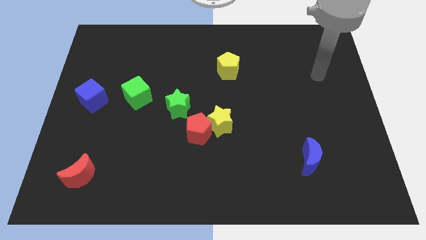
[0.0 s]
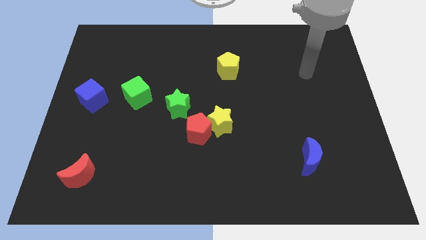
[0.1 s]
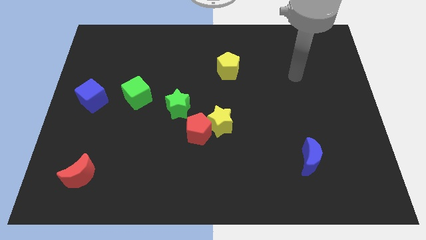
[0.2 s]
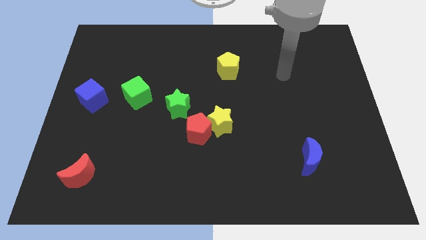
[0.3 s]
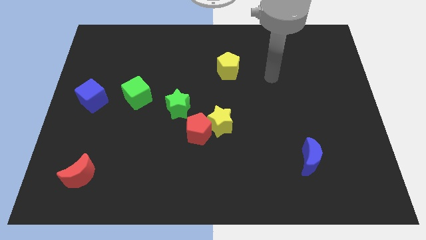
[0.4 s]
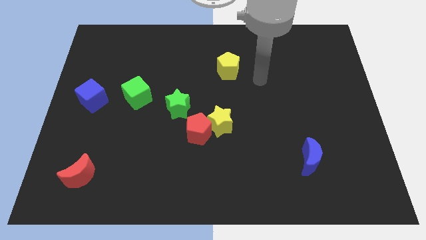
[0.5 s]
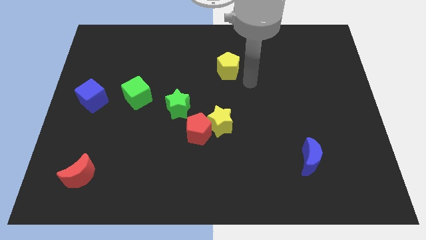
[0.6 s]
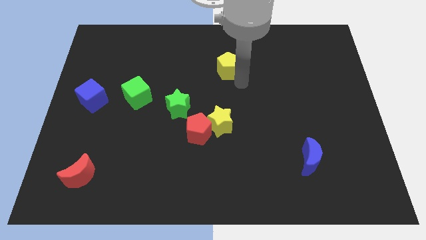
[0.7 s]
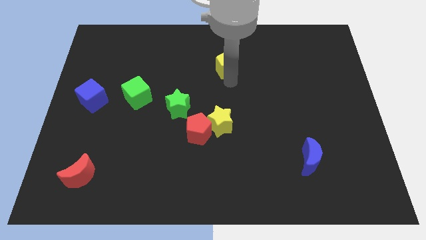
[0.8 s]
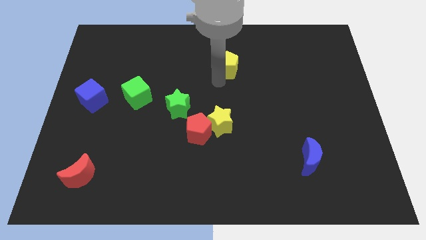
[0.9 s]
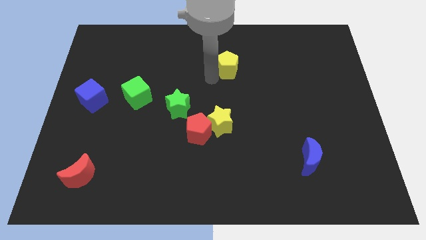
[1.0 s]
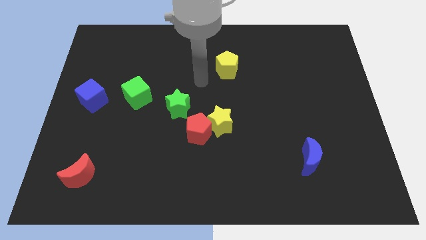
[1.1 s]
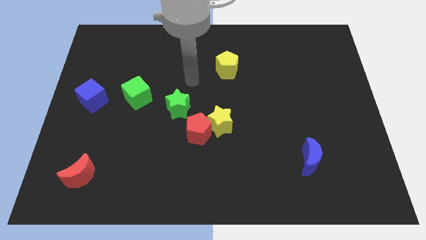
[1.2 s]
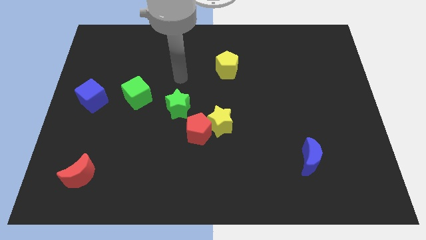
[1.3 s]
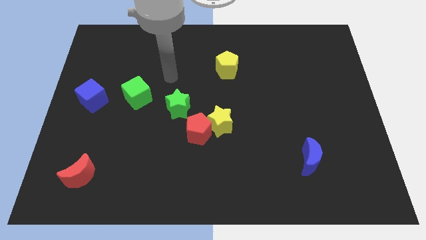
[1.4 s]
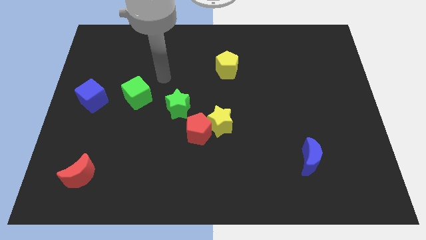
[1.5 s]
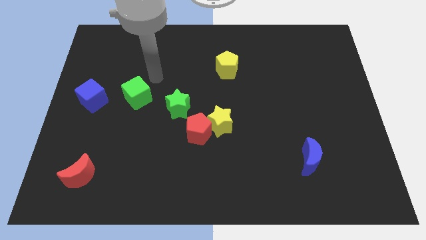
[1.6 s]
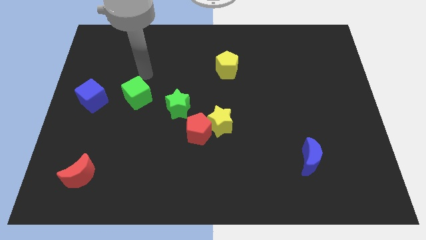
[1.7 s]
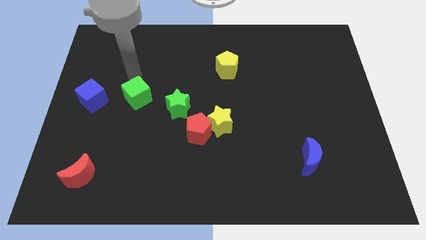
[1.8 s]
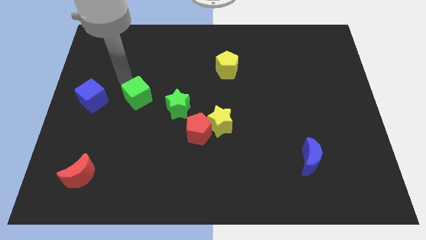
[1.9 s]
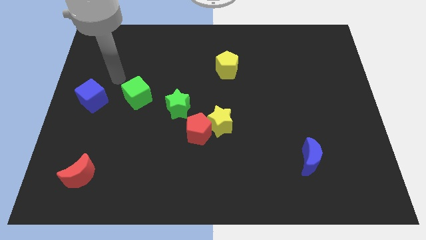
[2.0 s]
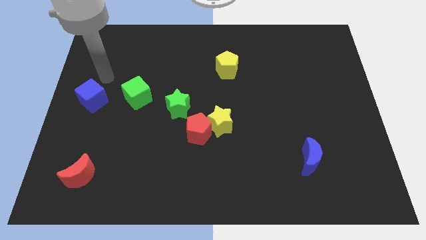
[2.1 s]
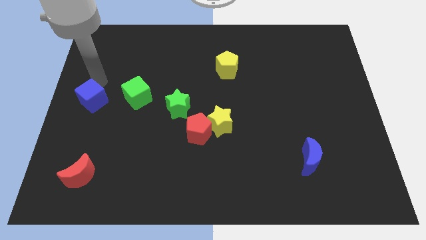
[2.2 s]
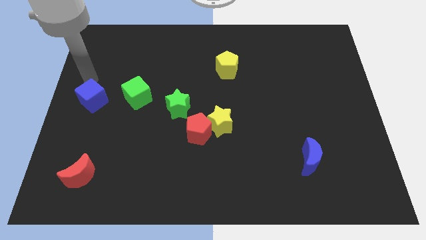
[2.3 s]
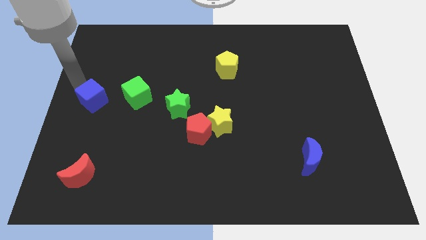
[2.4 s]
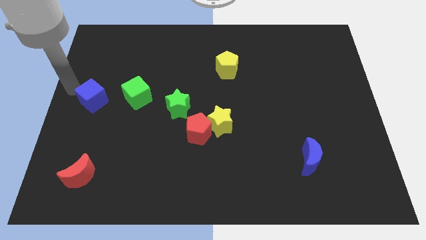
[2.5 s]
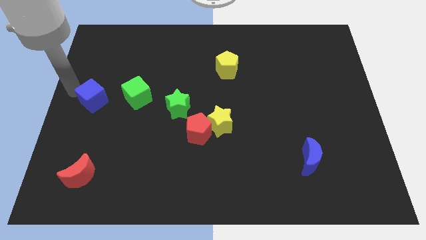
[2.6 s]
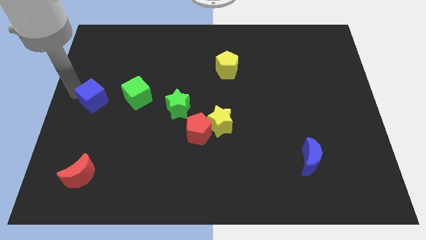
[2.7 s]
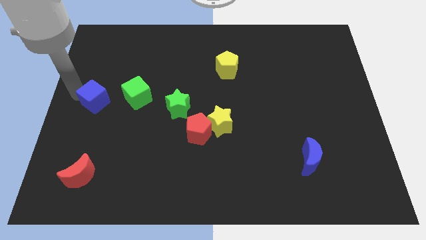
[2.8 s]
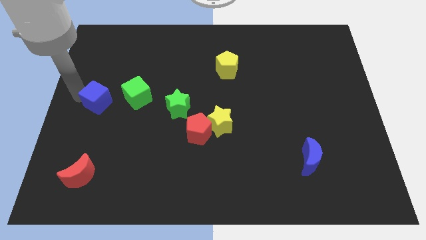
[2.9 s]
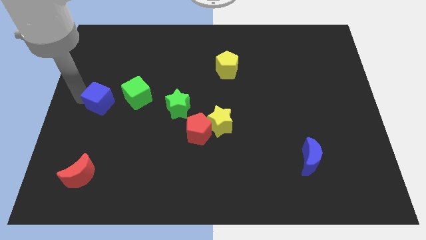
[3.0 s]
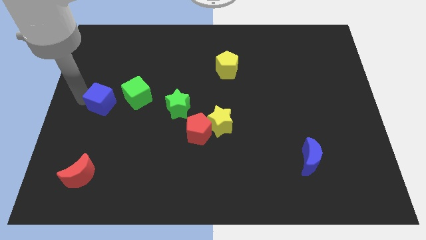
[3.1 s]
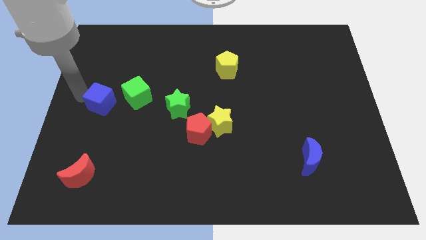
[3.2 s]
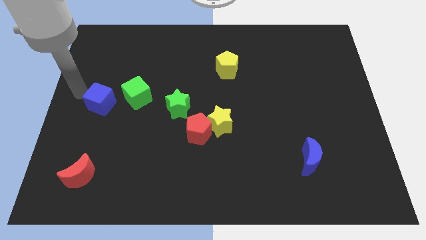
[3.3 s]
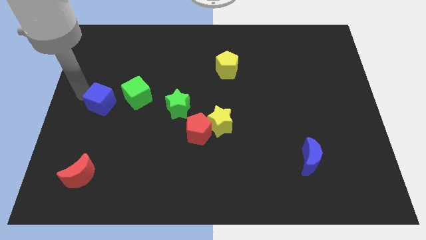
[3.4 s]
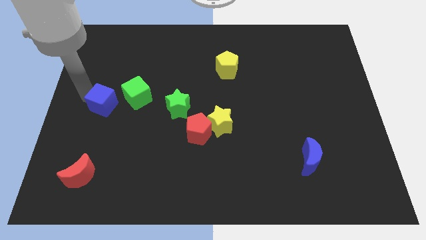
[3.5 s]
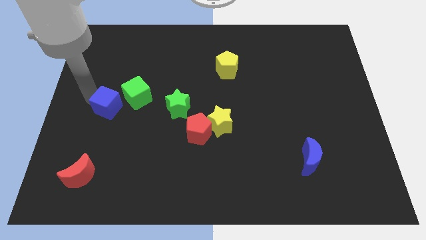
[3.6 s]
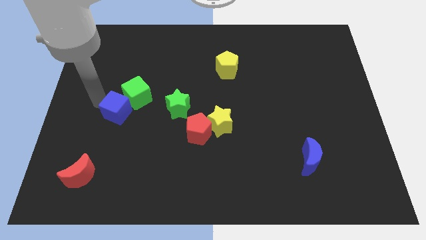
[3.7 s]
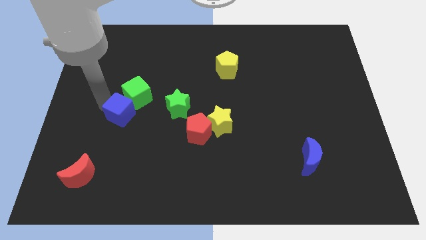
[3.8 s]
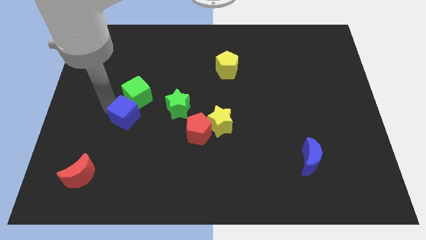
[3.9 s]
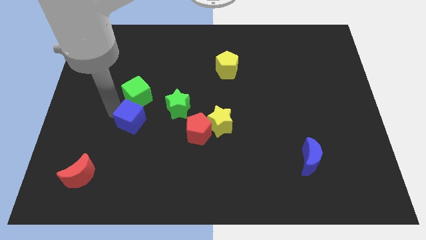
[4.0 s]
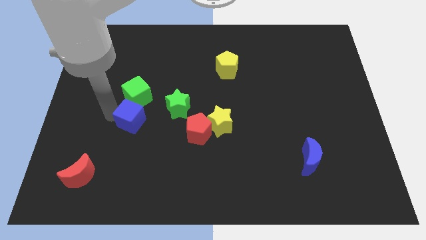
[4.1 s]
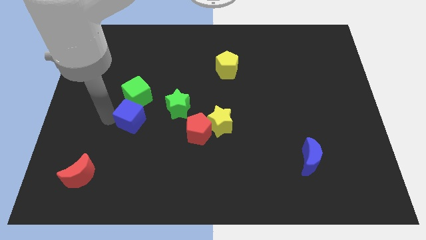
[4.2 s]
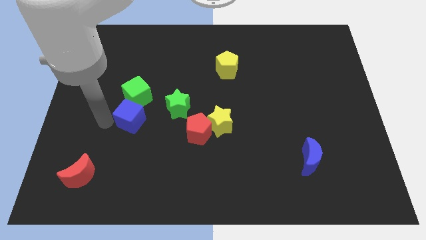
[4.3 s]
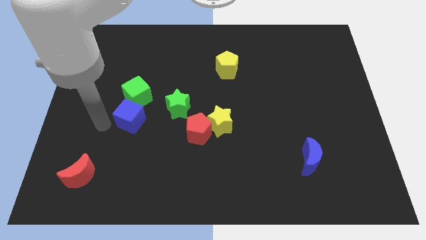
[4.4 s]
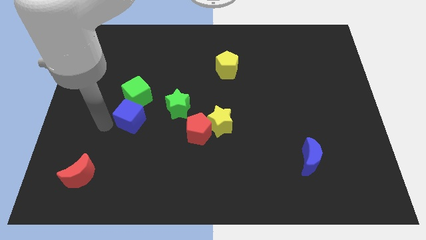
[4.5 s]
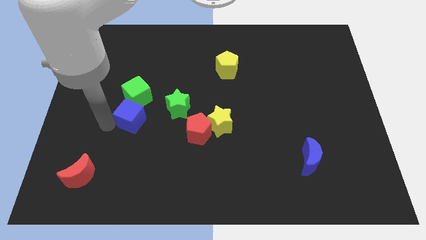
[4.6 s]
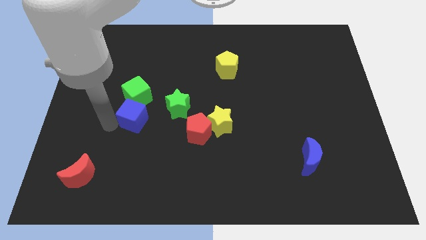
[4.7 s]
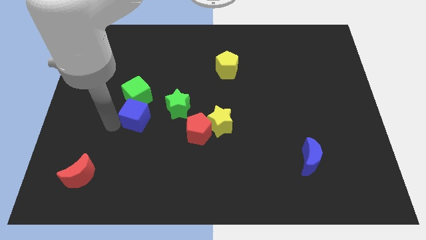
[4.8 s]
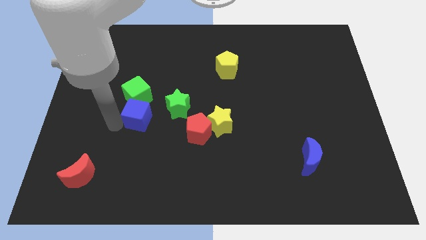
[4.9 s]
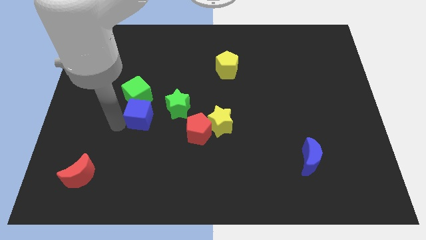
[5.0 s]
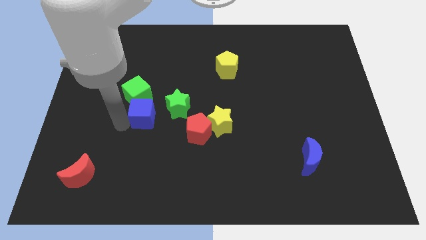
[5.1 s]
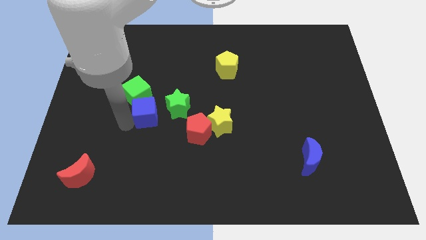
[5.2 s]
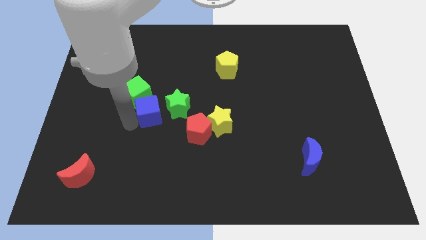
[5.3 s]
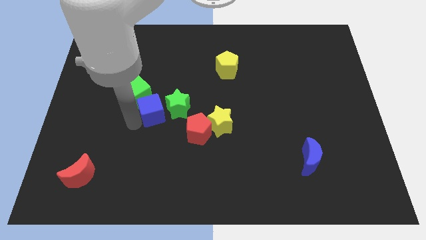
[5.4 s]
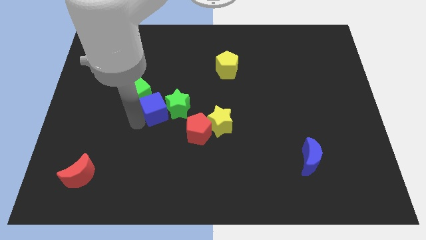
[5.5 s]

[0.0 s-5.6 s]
slide the blue cube to the green star

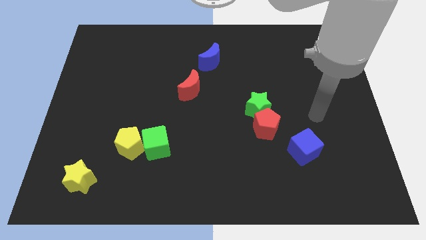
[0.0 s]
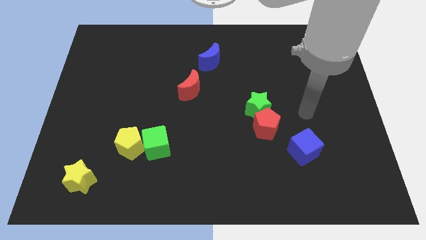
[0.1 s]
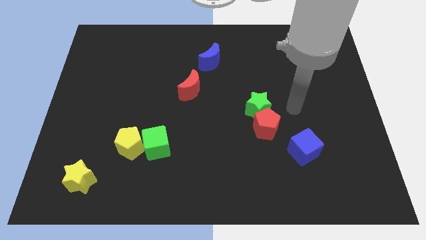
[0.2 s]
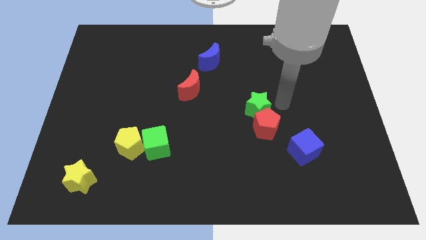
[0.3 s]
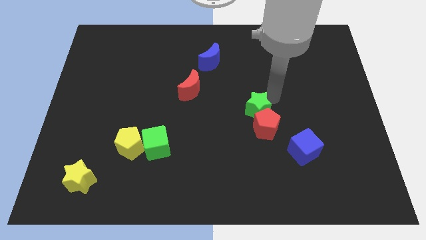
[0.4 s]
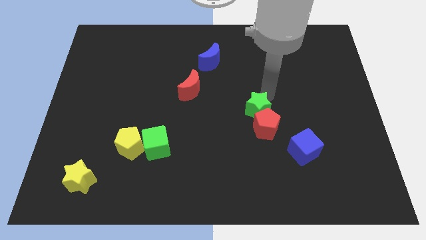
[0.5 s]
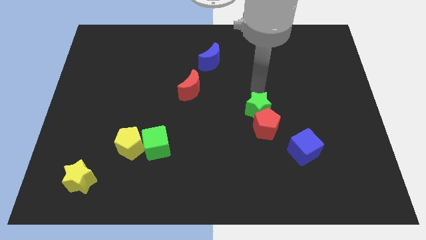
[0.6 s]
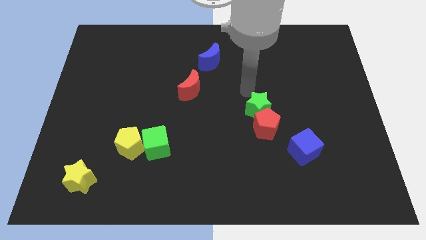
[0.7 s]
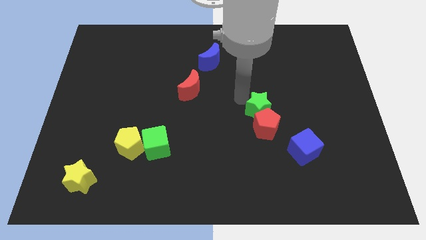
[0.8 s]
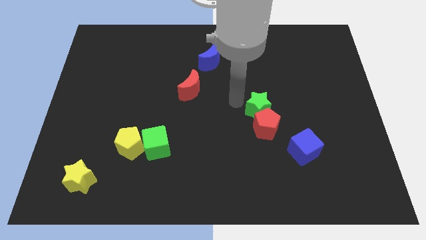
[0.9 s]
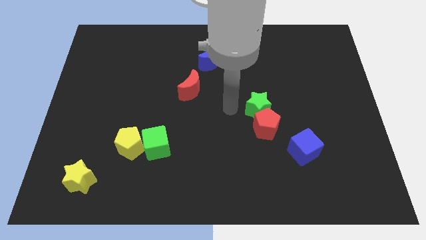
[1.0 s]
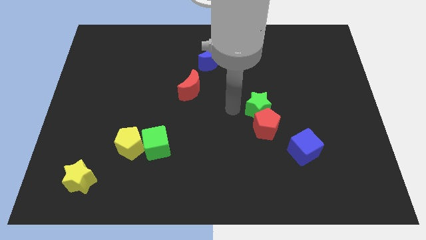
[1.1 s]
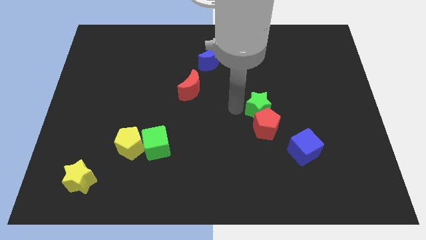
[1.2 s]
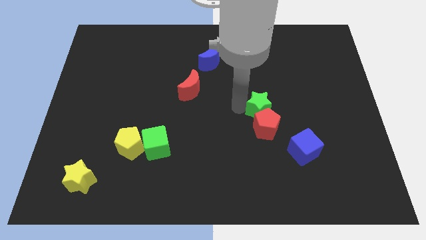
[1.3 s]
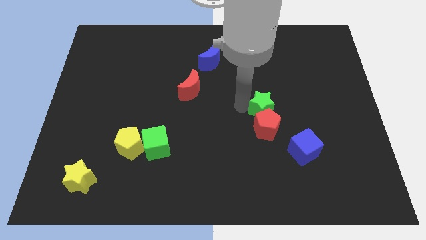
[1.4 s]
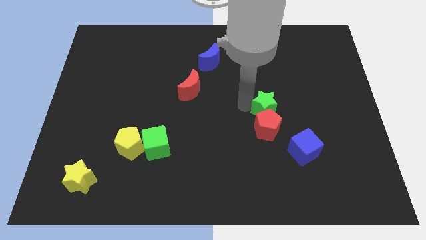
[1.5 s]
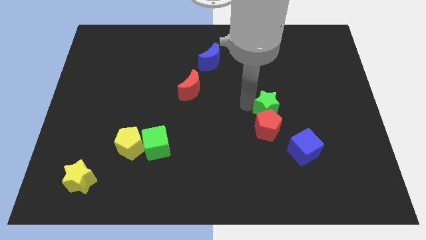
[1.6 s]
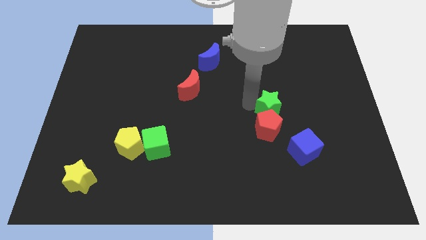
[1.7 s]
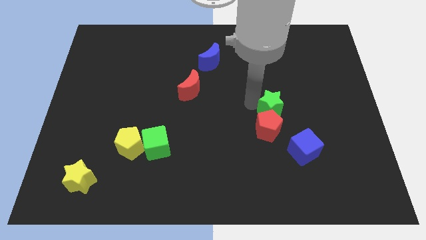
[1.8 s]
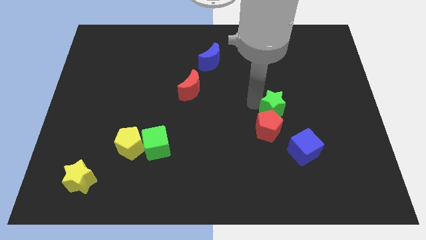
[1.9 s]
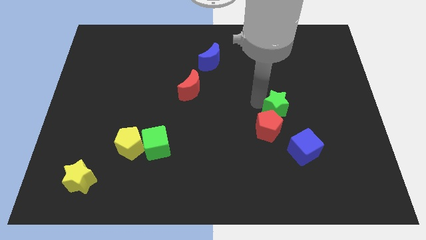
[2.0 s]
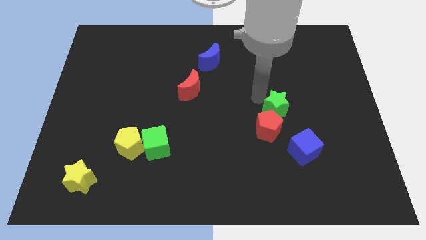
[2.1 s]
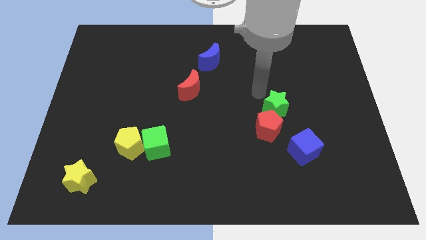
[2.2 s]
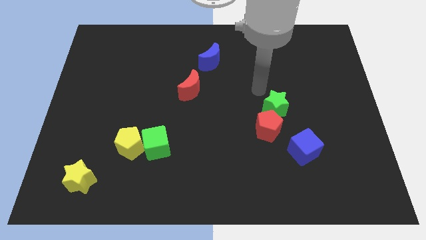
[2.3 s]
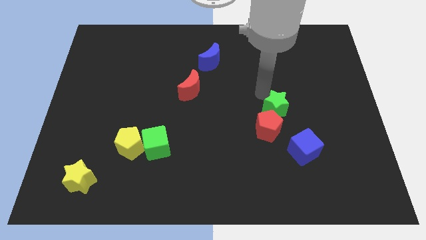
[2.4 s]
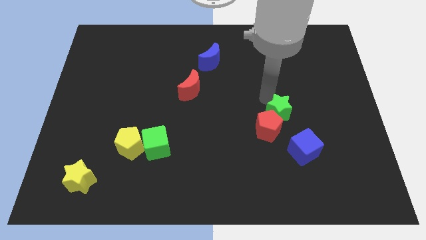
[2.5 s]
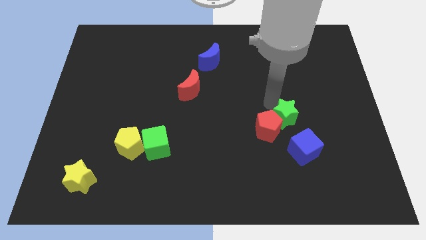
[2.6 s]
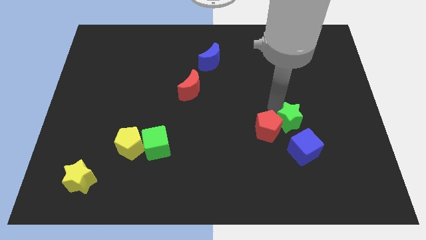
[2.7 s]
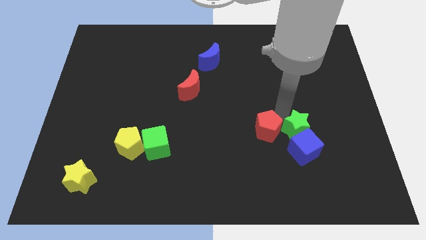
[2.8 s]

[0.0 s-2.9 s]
push the green star next to the blue cube
